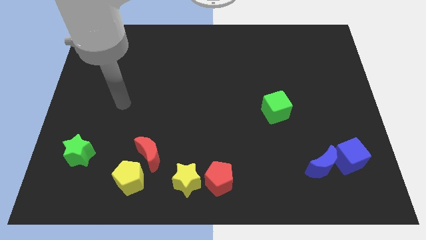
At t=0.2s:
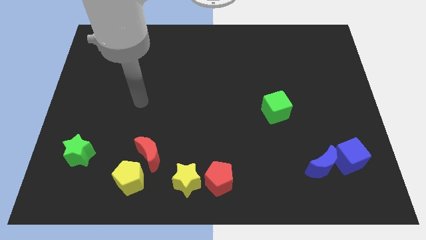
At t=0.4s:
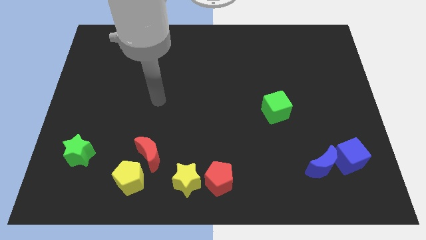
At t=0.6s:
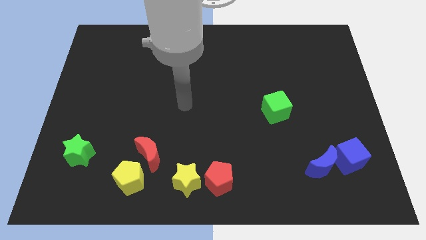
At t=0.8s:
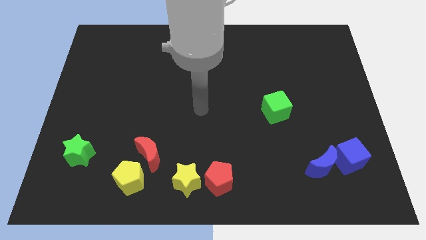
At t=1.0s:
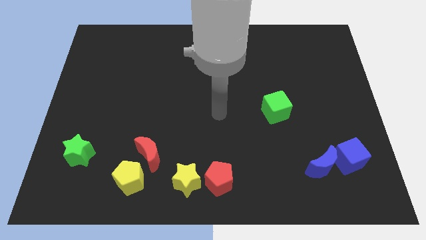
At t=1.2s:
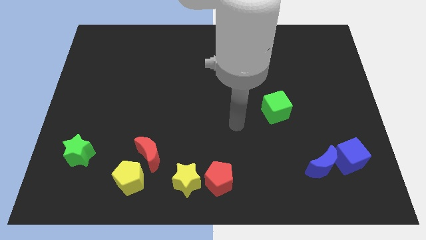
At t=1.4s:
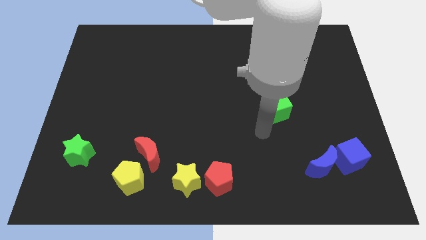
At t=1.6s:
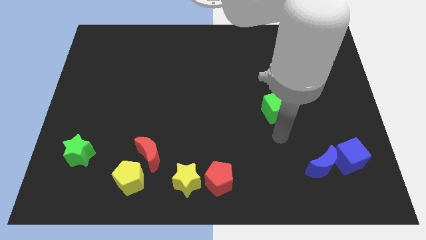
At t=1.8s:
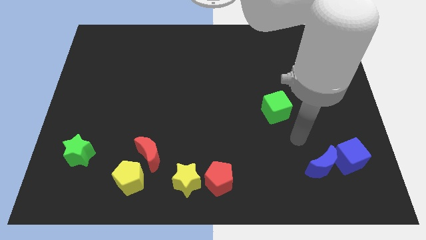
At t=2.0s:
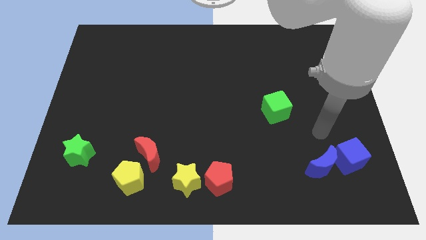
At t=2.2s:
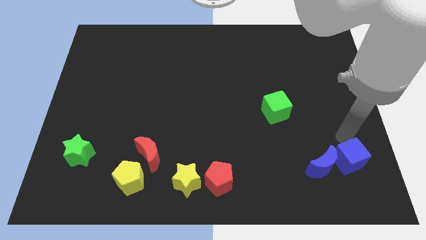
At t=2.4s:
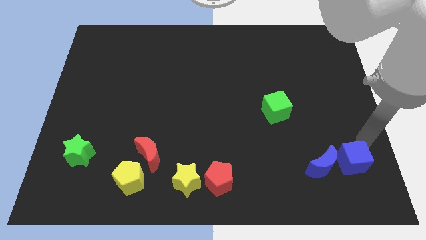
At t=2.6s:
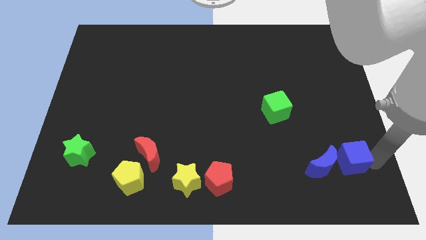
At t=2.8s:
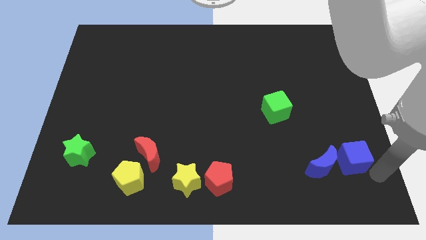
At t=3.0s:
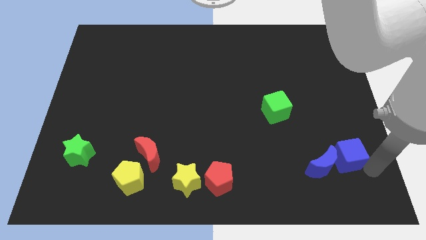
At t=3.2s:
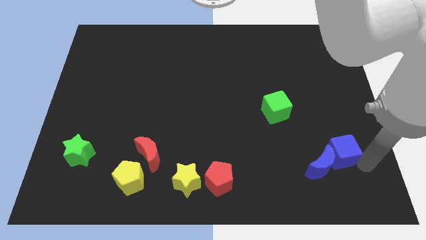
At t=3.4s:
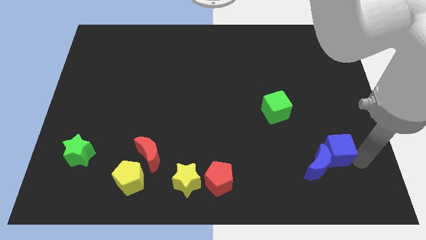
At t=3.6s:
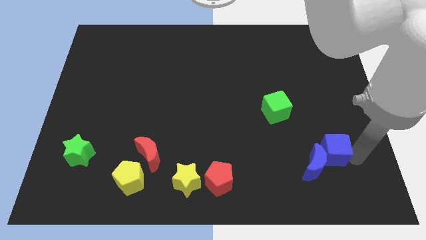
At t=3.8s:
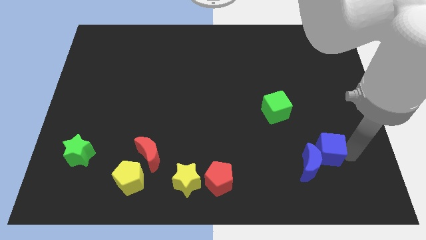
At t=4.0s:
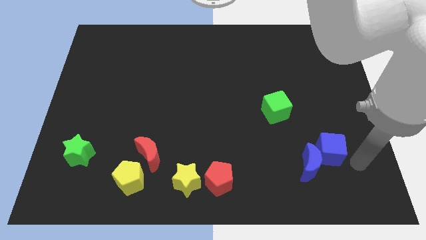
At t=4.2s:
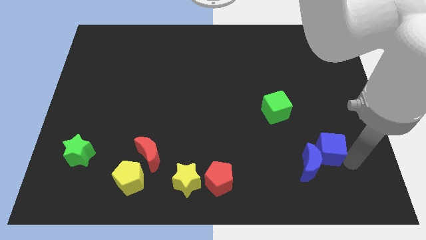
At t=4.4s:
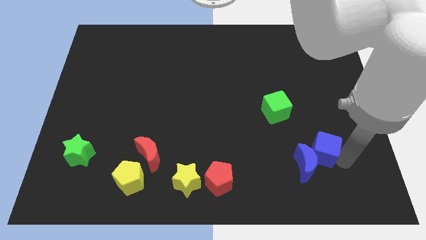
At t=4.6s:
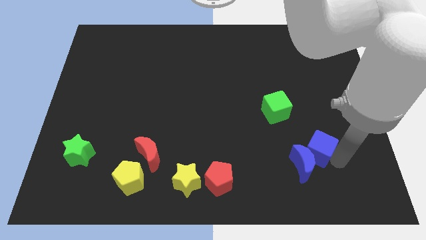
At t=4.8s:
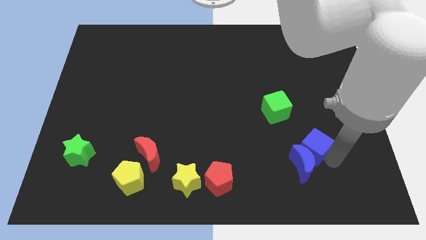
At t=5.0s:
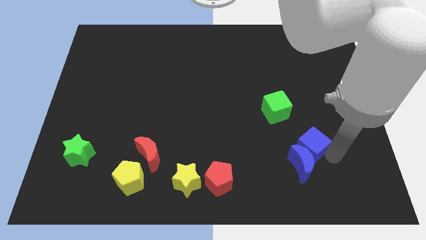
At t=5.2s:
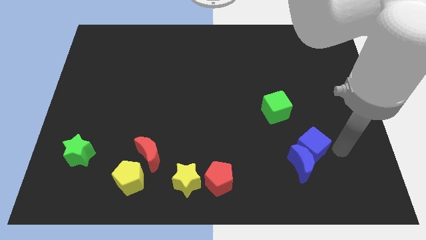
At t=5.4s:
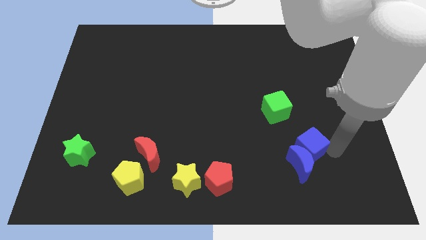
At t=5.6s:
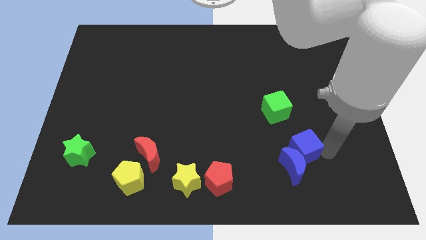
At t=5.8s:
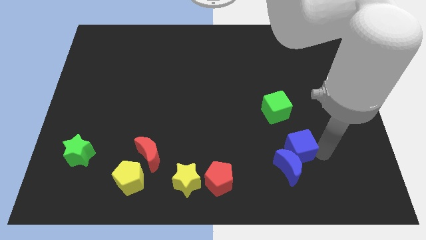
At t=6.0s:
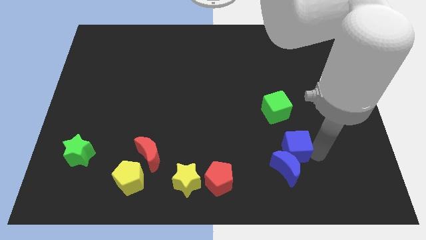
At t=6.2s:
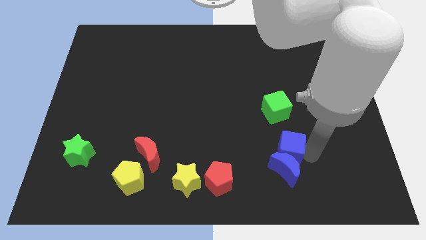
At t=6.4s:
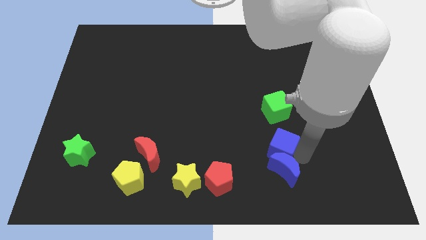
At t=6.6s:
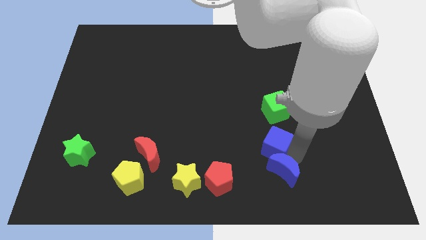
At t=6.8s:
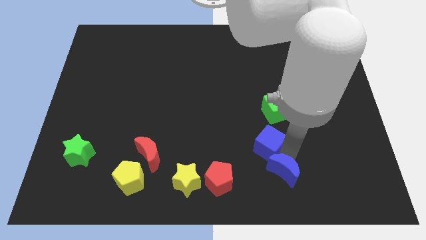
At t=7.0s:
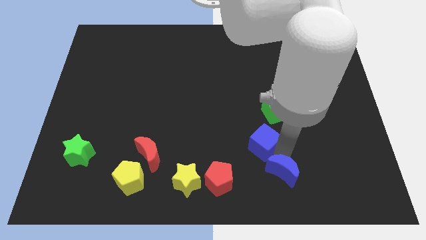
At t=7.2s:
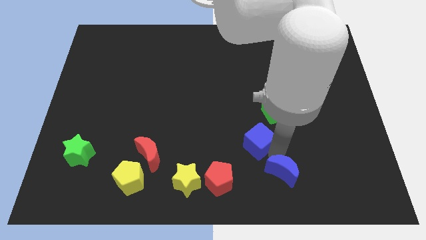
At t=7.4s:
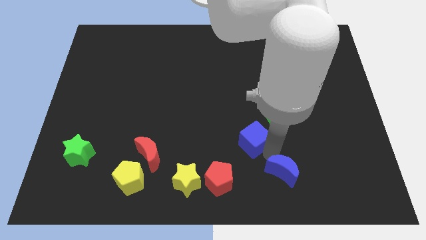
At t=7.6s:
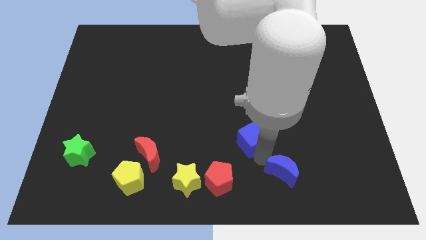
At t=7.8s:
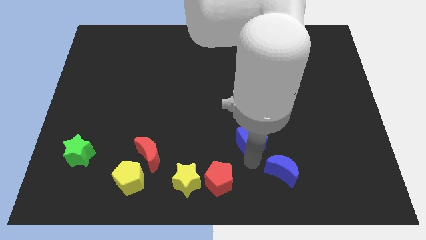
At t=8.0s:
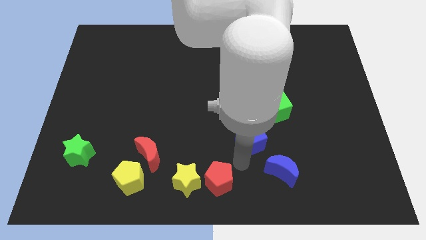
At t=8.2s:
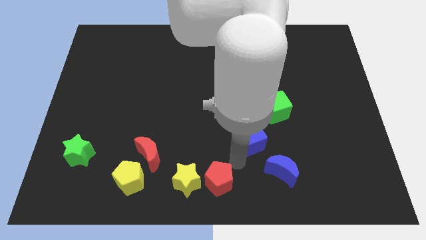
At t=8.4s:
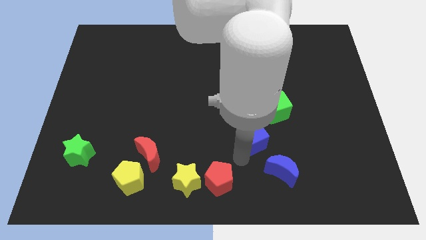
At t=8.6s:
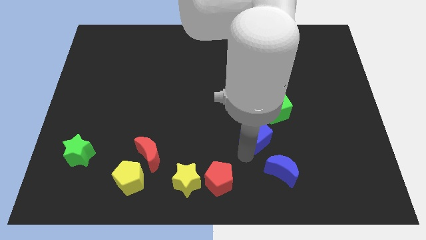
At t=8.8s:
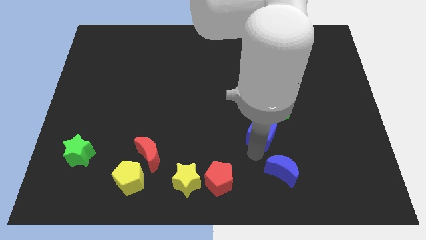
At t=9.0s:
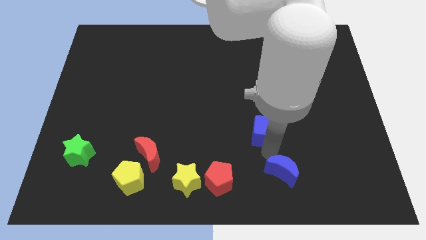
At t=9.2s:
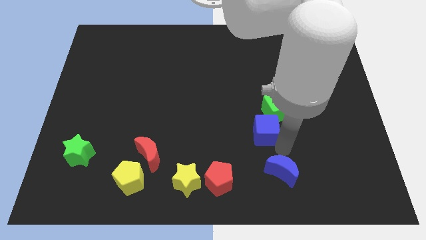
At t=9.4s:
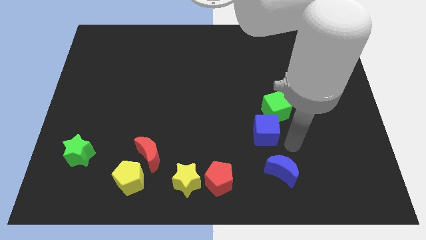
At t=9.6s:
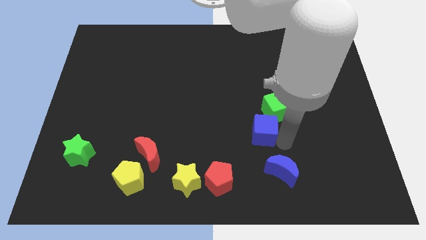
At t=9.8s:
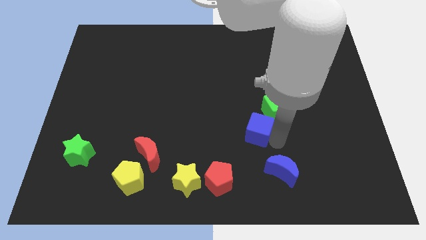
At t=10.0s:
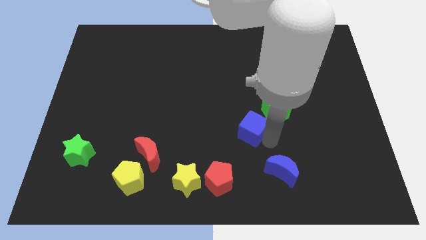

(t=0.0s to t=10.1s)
move the blue cube to the center

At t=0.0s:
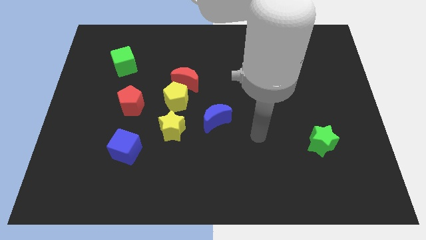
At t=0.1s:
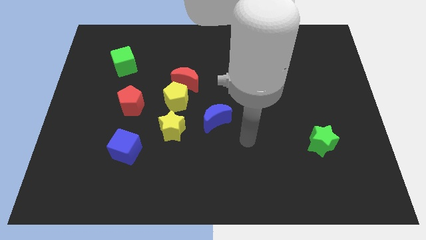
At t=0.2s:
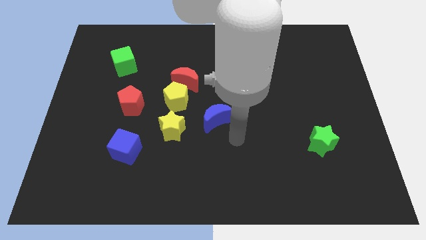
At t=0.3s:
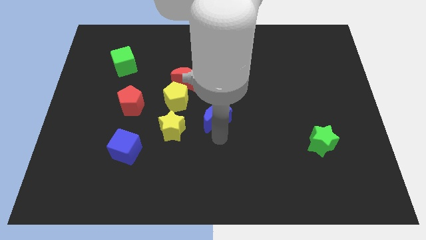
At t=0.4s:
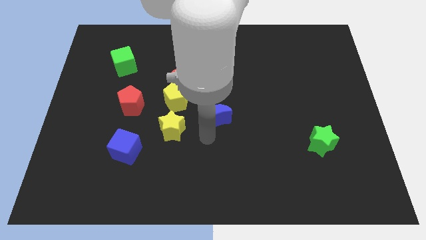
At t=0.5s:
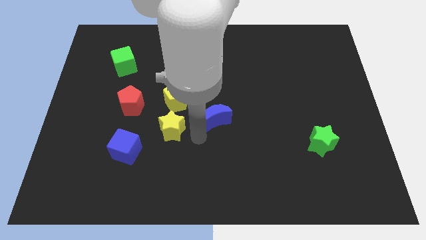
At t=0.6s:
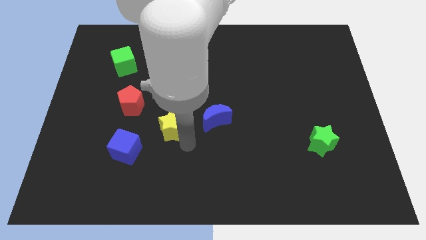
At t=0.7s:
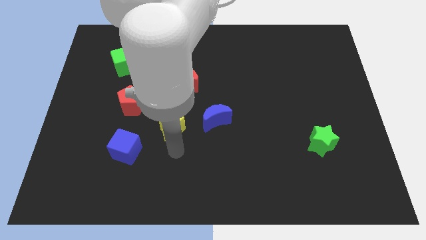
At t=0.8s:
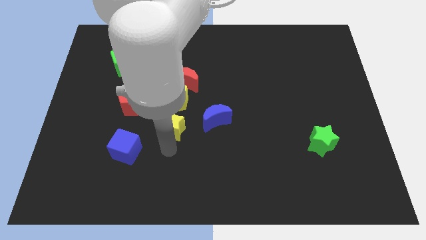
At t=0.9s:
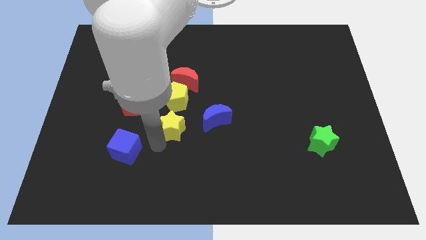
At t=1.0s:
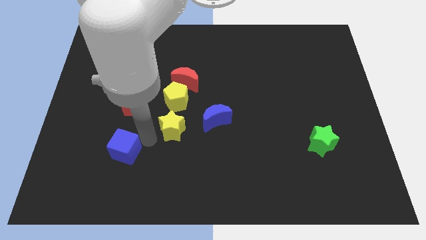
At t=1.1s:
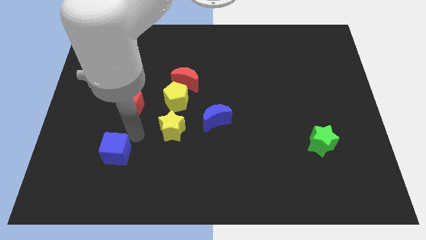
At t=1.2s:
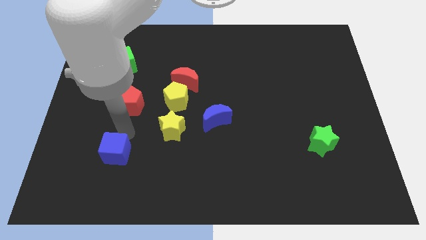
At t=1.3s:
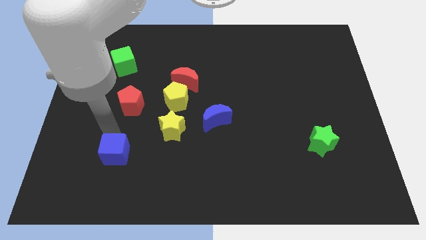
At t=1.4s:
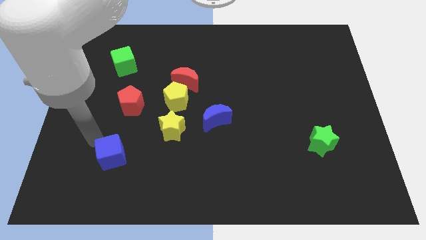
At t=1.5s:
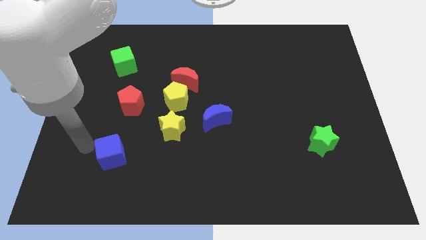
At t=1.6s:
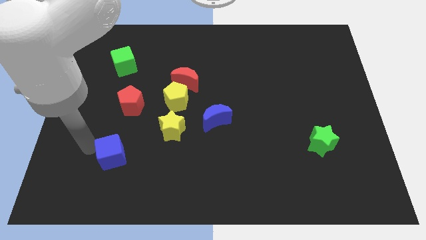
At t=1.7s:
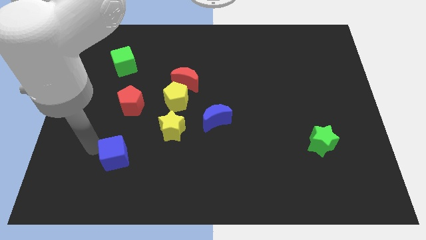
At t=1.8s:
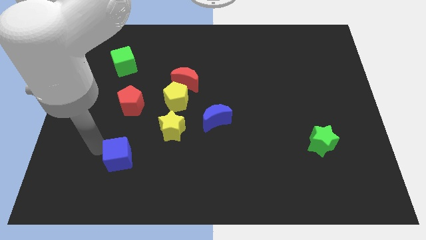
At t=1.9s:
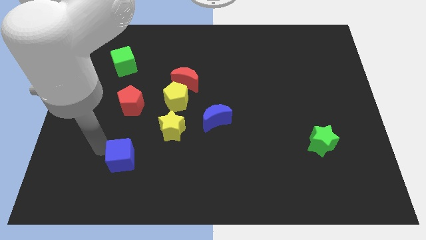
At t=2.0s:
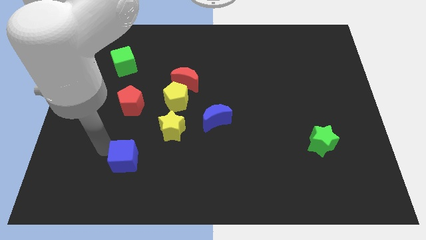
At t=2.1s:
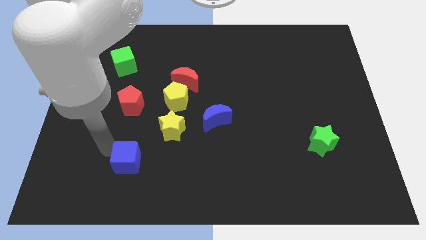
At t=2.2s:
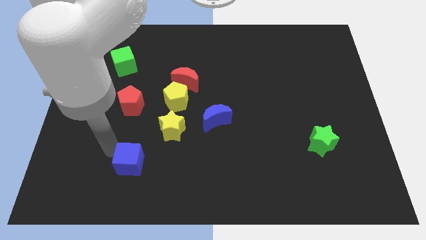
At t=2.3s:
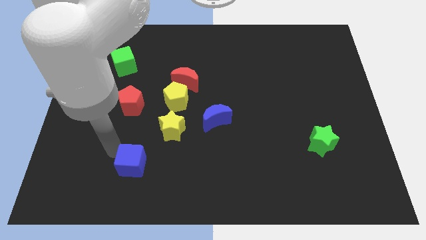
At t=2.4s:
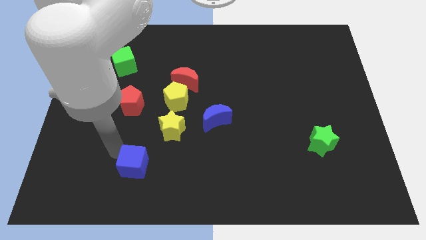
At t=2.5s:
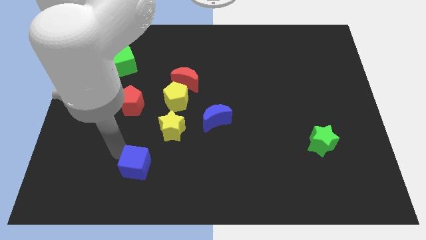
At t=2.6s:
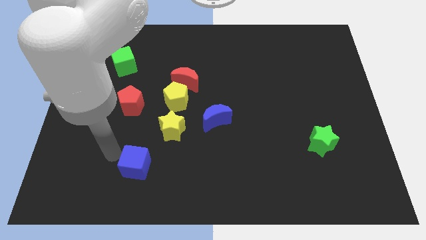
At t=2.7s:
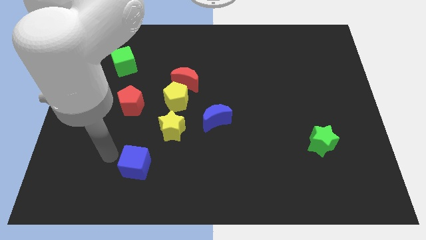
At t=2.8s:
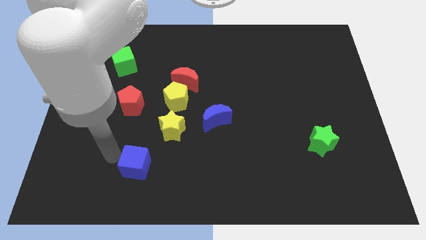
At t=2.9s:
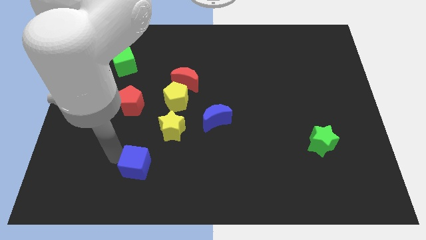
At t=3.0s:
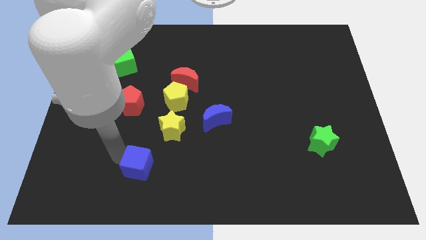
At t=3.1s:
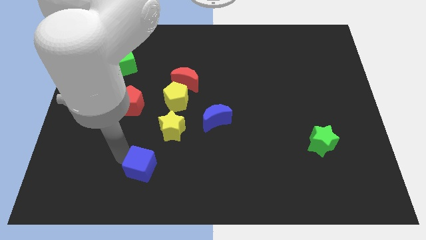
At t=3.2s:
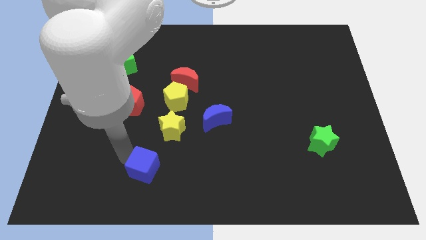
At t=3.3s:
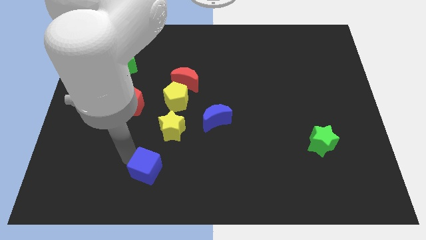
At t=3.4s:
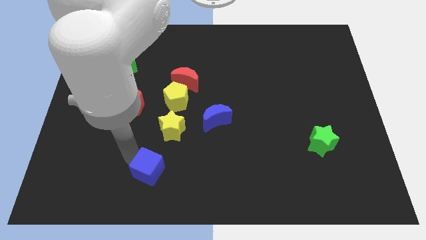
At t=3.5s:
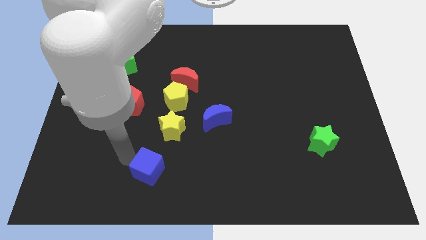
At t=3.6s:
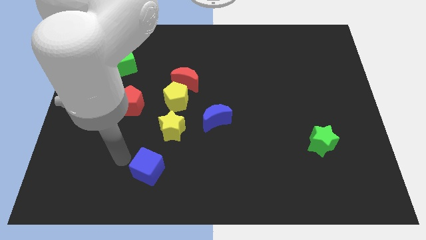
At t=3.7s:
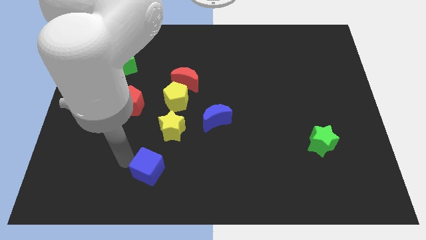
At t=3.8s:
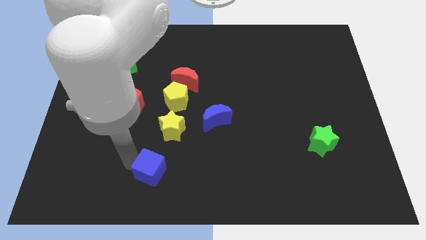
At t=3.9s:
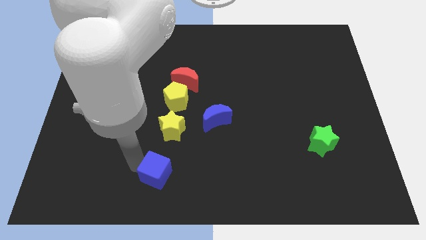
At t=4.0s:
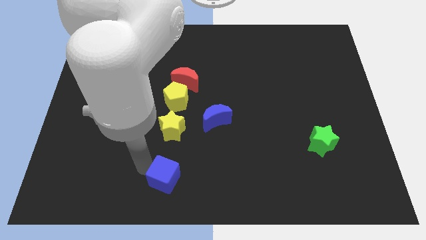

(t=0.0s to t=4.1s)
move the blue cube to the bottom side
